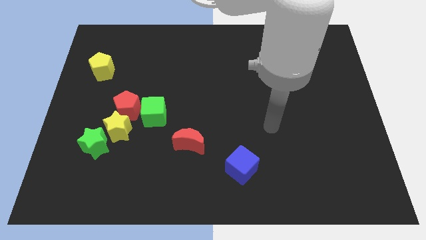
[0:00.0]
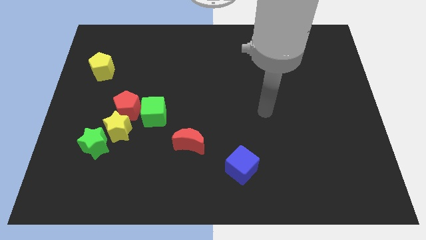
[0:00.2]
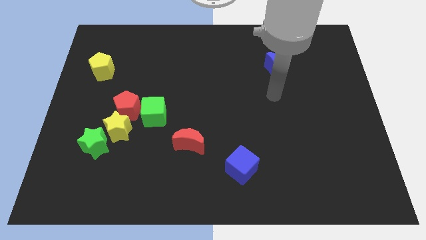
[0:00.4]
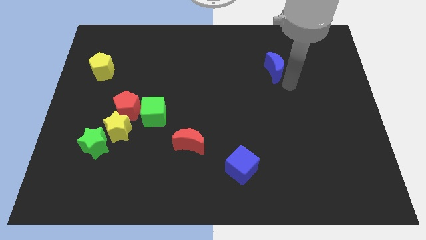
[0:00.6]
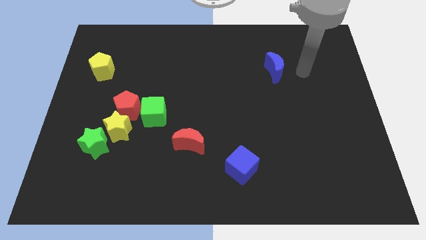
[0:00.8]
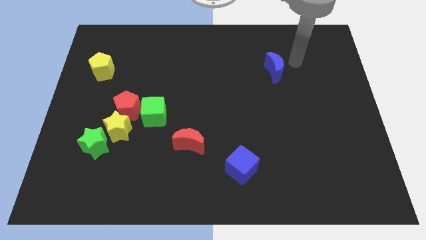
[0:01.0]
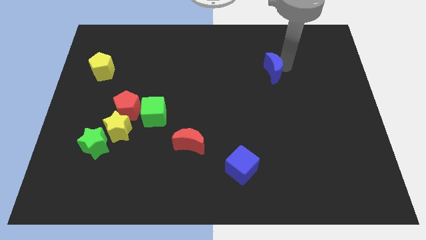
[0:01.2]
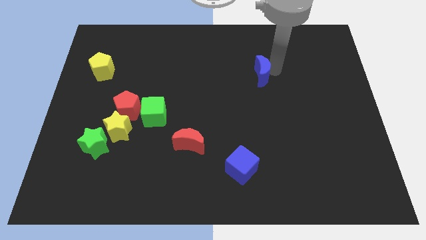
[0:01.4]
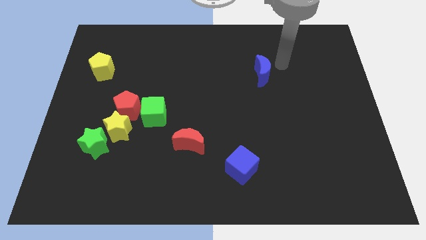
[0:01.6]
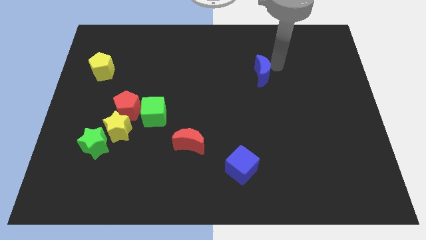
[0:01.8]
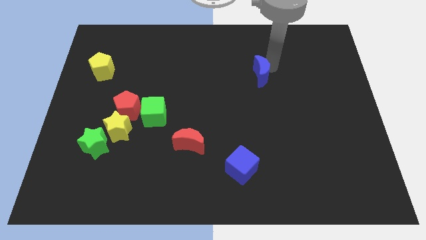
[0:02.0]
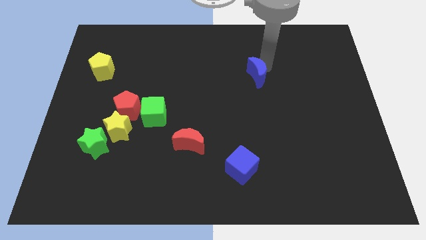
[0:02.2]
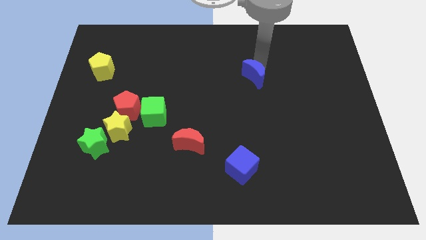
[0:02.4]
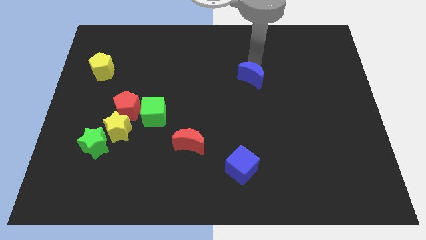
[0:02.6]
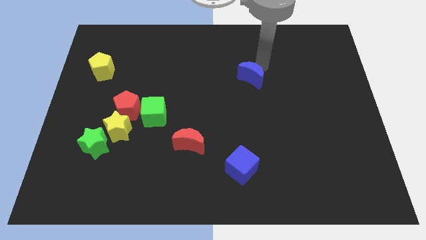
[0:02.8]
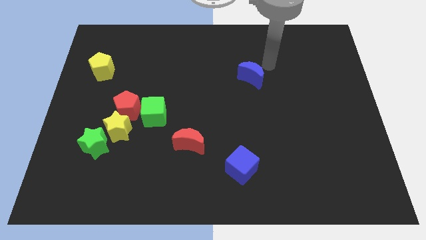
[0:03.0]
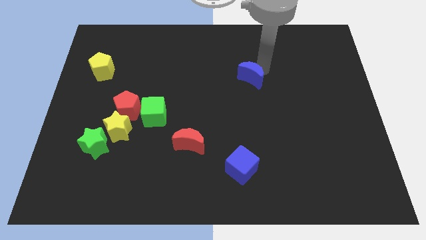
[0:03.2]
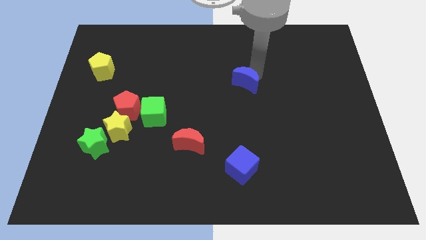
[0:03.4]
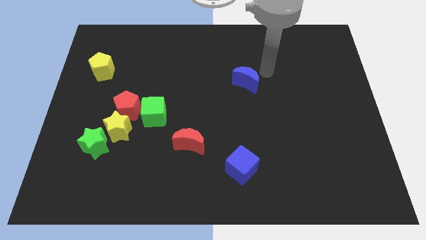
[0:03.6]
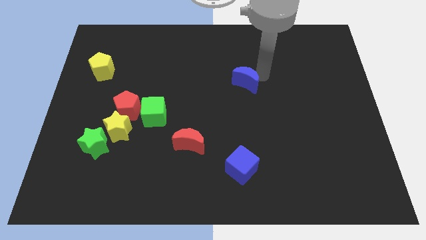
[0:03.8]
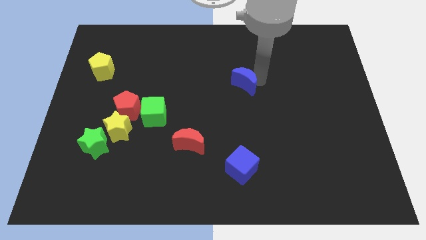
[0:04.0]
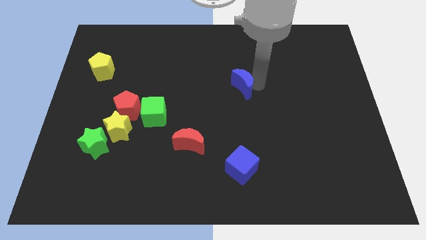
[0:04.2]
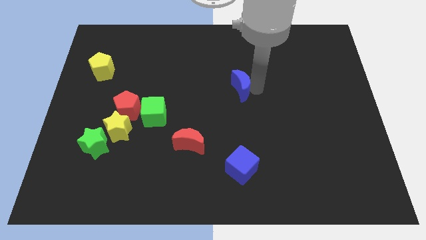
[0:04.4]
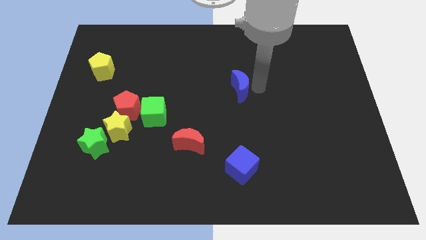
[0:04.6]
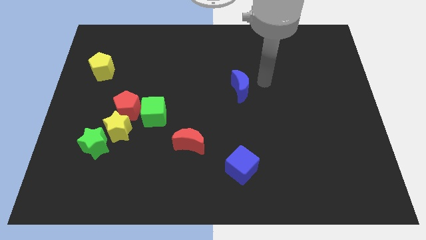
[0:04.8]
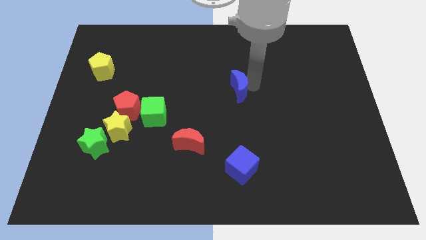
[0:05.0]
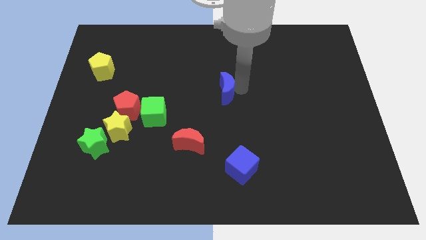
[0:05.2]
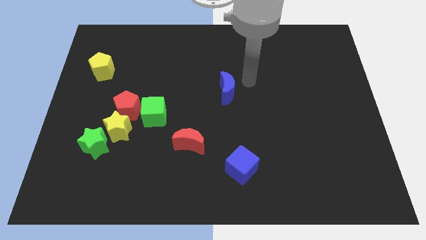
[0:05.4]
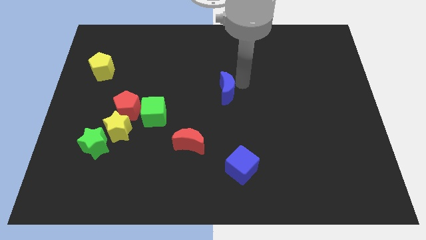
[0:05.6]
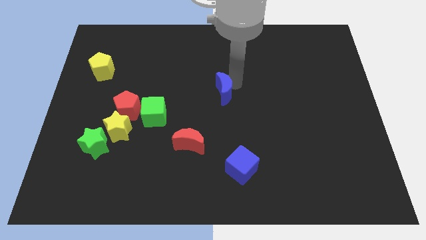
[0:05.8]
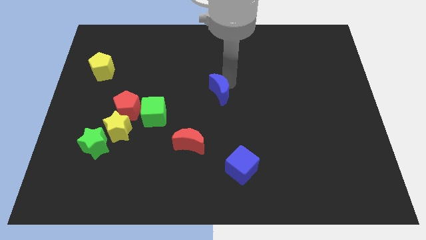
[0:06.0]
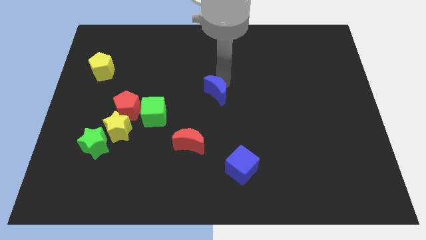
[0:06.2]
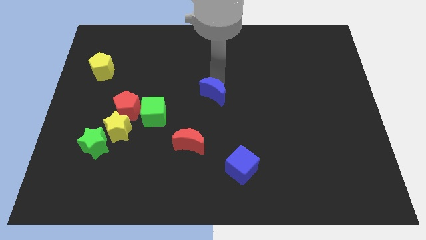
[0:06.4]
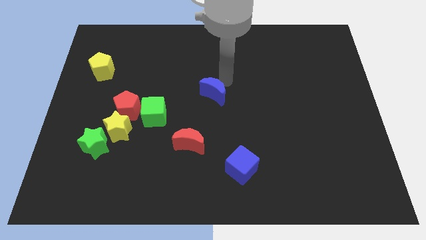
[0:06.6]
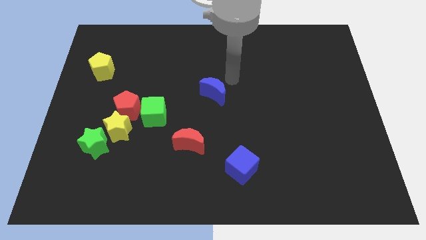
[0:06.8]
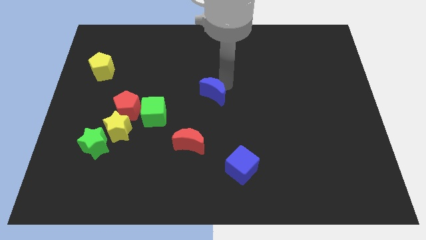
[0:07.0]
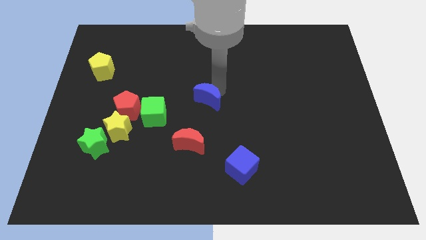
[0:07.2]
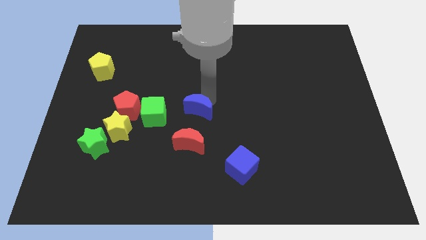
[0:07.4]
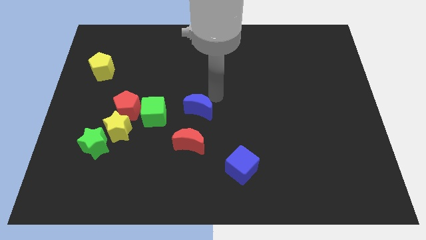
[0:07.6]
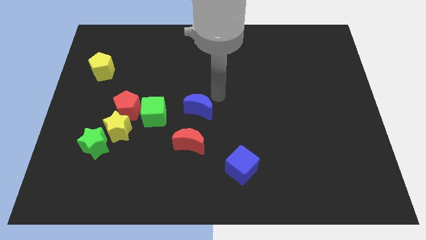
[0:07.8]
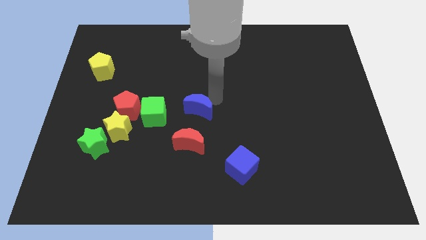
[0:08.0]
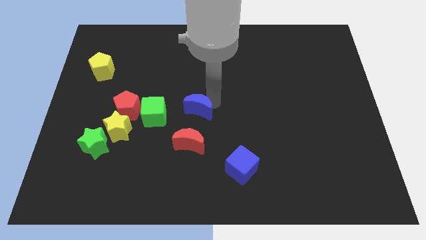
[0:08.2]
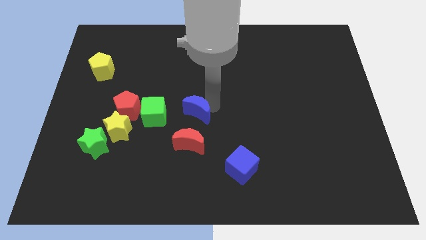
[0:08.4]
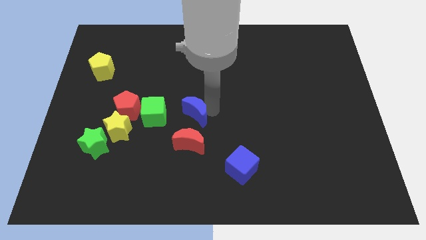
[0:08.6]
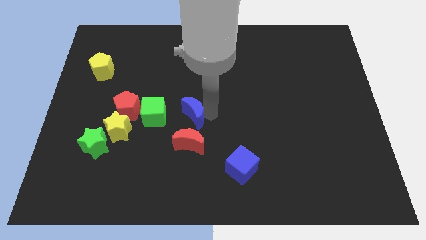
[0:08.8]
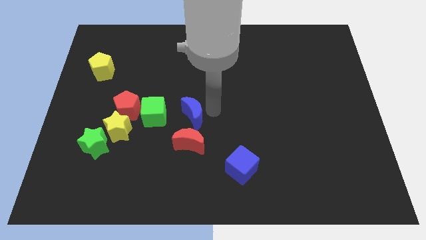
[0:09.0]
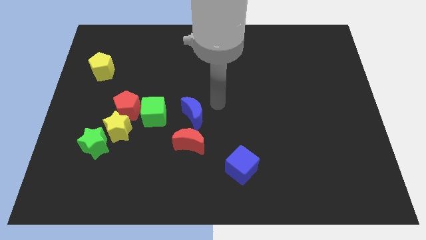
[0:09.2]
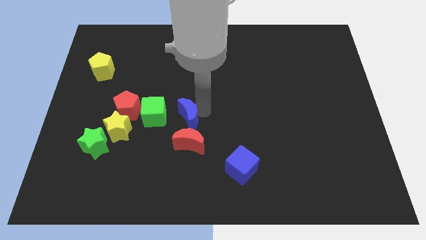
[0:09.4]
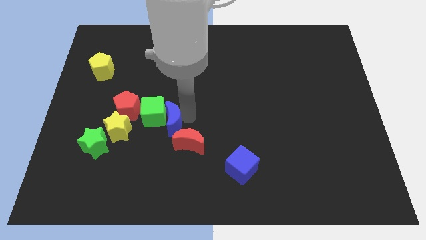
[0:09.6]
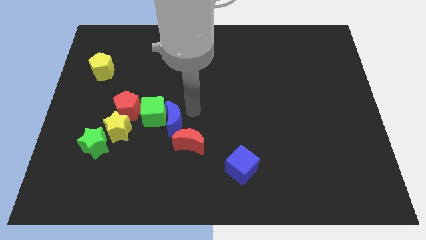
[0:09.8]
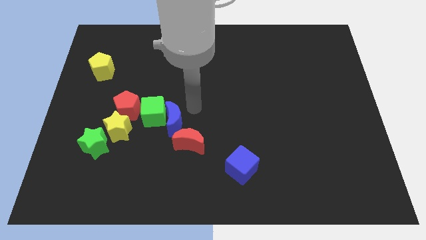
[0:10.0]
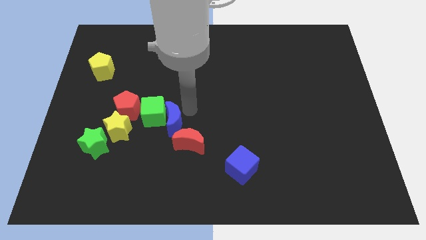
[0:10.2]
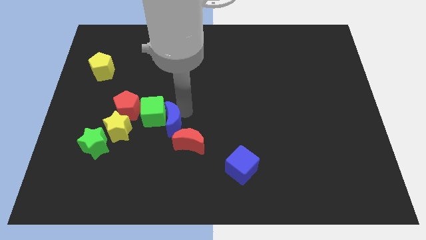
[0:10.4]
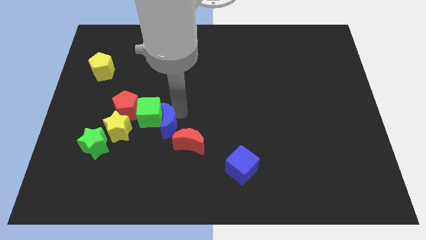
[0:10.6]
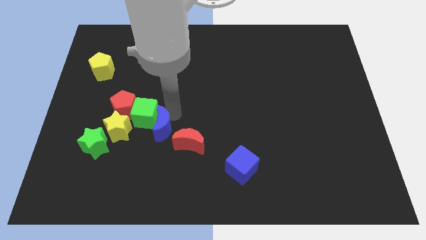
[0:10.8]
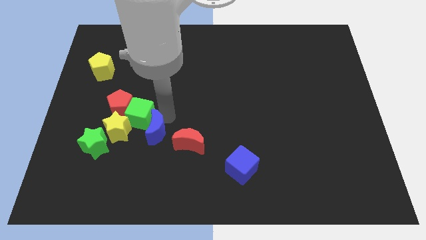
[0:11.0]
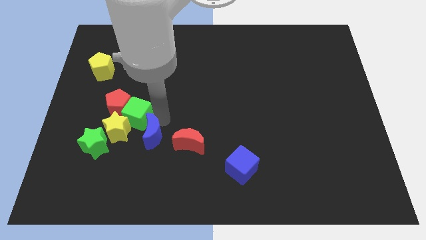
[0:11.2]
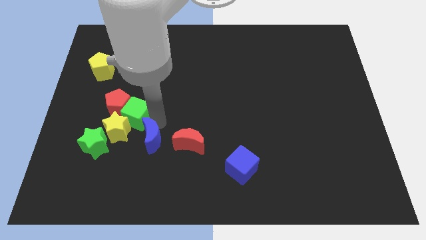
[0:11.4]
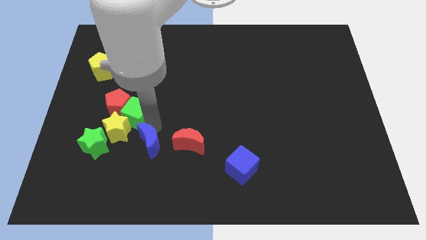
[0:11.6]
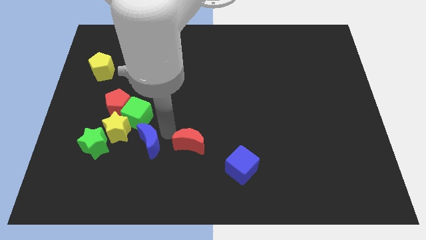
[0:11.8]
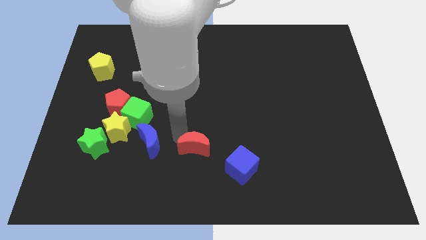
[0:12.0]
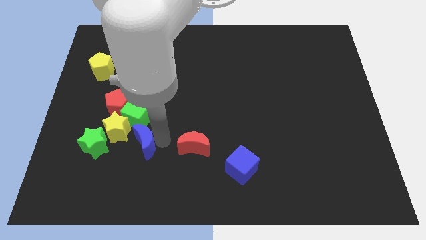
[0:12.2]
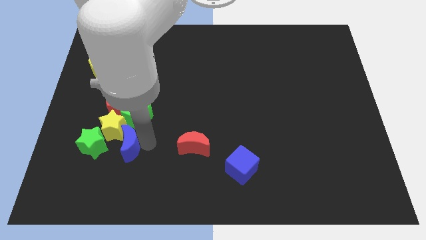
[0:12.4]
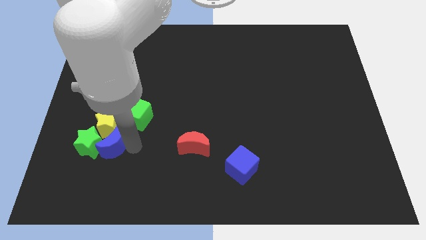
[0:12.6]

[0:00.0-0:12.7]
slide the blue moon close to the green star
